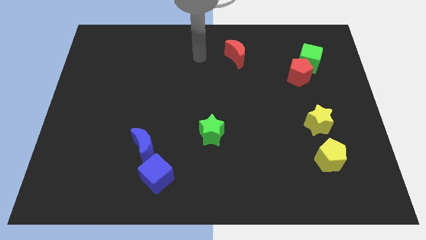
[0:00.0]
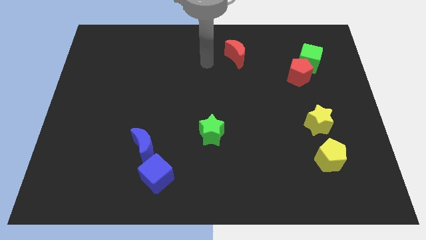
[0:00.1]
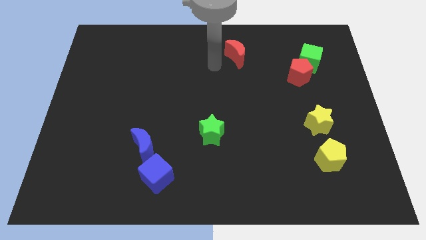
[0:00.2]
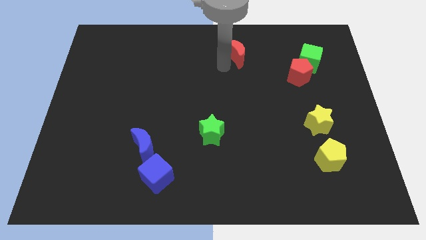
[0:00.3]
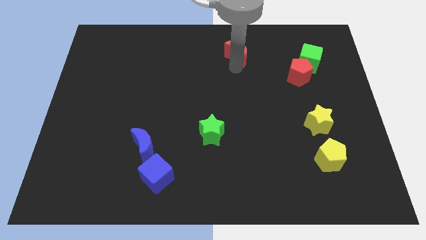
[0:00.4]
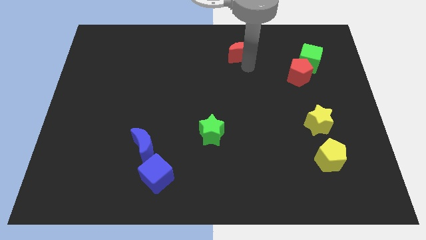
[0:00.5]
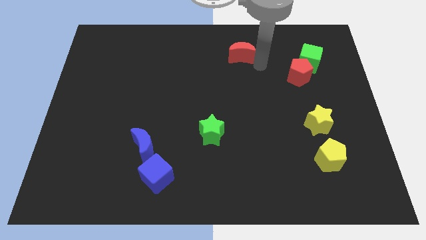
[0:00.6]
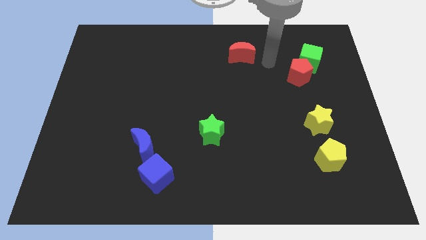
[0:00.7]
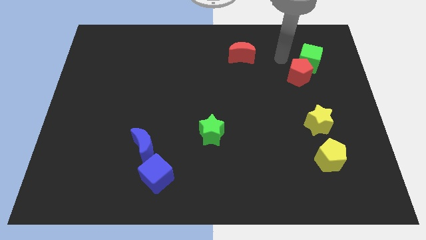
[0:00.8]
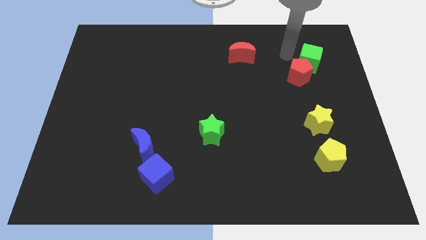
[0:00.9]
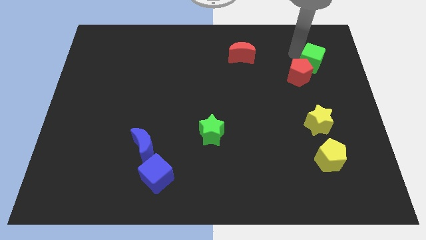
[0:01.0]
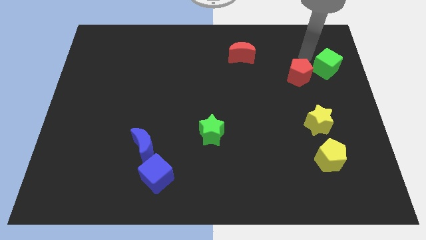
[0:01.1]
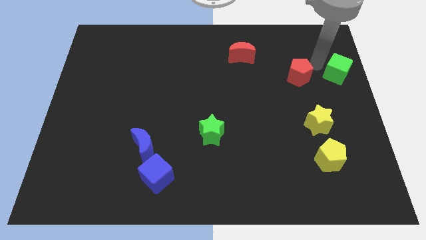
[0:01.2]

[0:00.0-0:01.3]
separate the red pentagon from the green cube

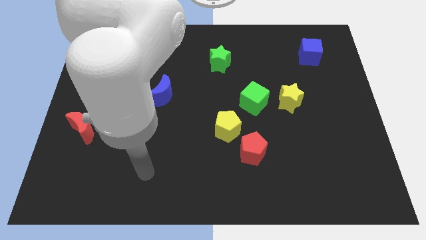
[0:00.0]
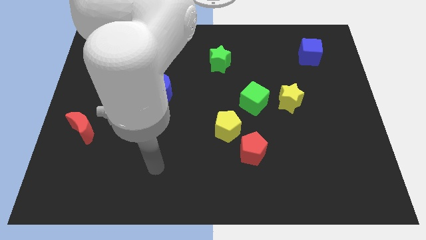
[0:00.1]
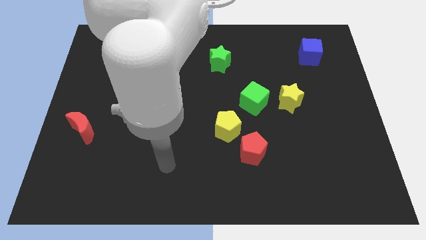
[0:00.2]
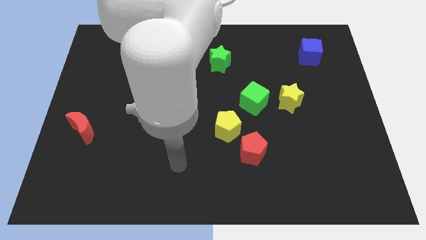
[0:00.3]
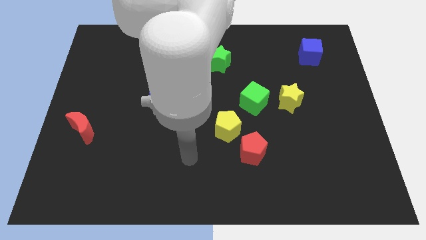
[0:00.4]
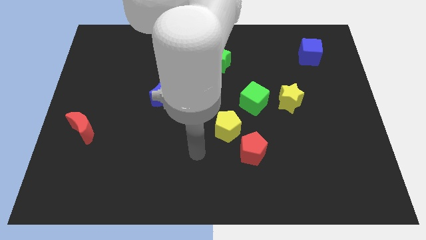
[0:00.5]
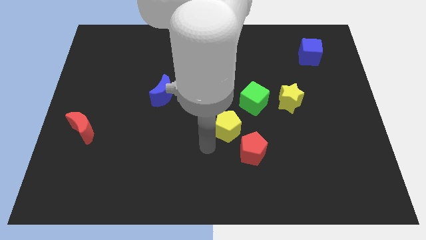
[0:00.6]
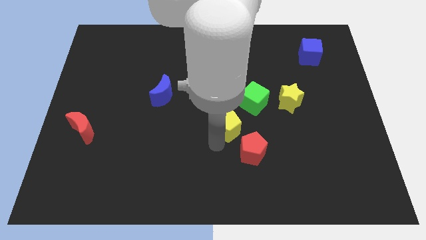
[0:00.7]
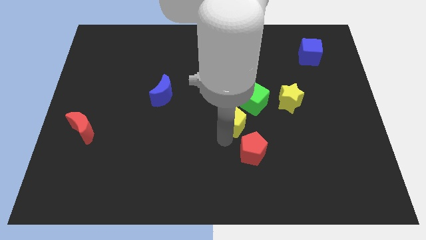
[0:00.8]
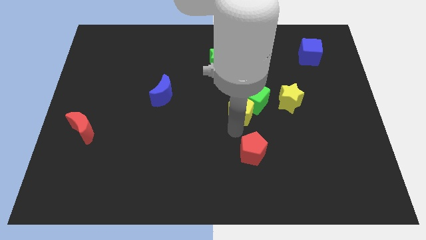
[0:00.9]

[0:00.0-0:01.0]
move the red pentagon away from the yellow pentagon

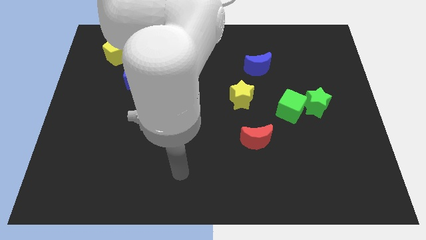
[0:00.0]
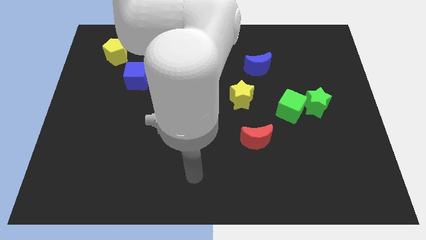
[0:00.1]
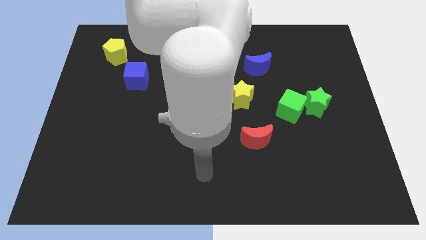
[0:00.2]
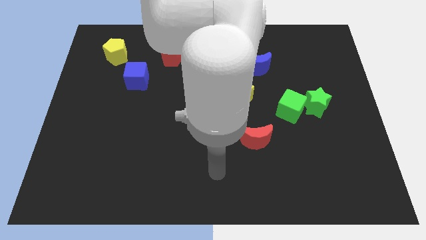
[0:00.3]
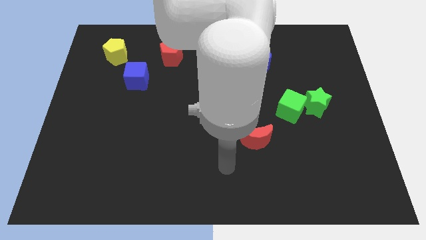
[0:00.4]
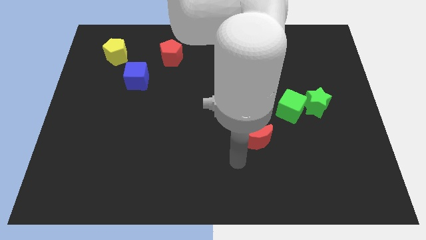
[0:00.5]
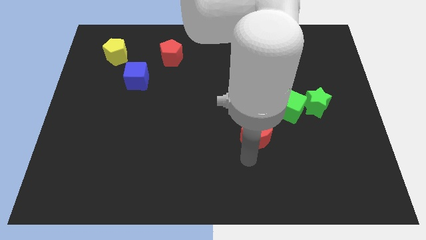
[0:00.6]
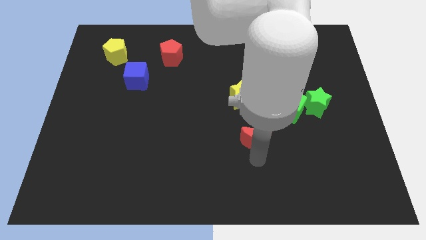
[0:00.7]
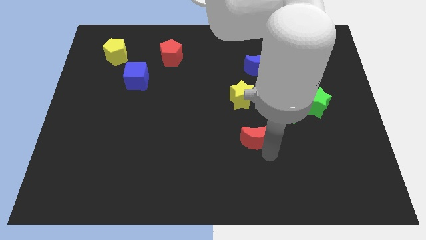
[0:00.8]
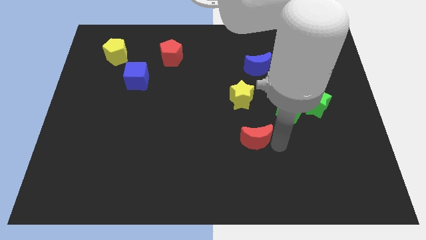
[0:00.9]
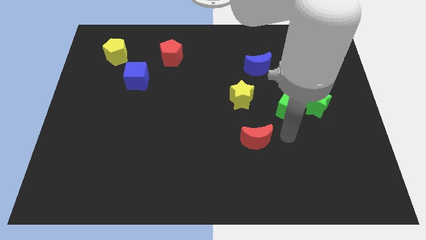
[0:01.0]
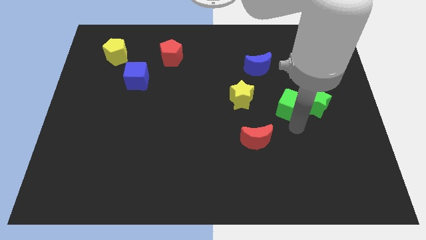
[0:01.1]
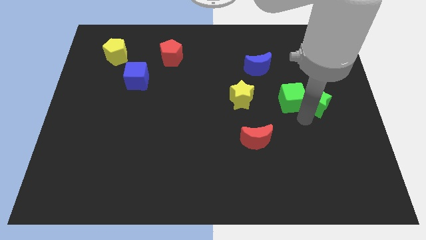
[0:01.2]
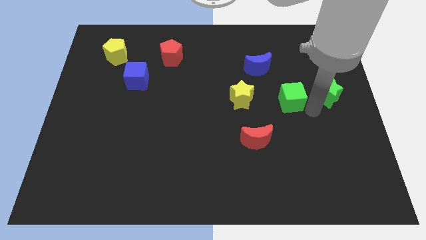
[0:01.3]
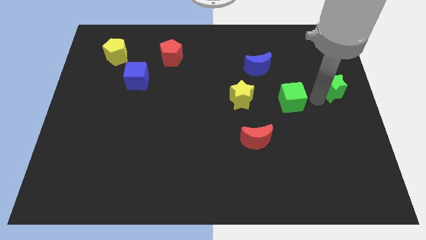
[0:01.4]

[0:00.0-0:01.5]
move the green cube away from the green star

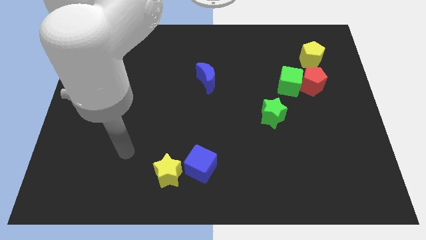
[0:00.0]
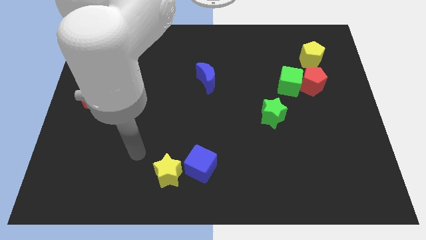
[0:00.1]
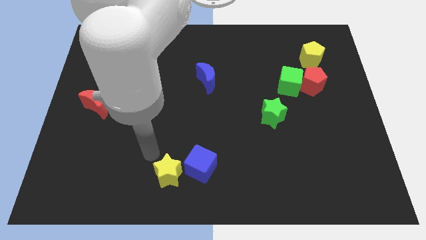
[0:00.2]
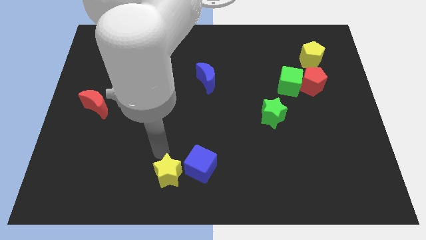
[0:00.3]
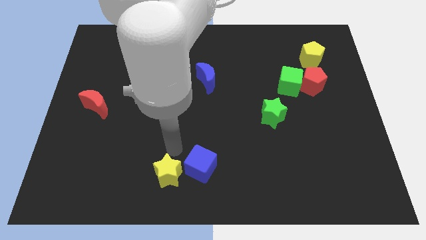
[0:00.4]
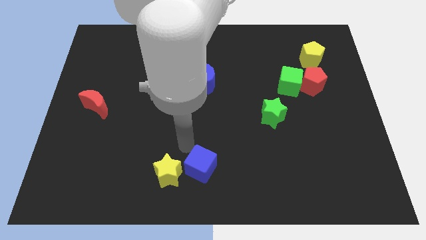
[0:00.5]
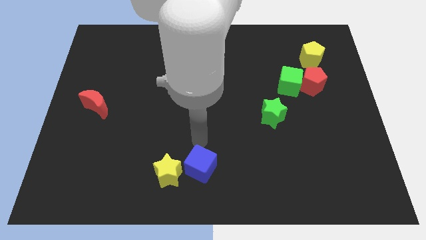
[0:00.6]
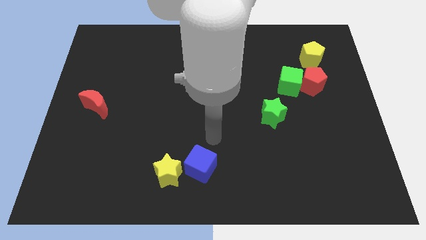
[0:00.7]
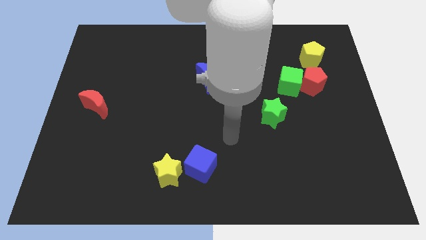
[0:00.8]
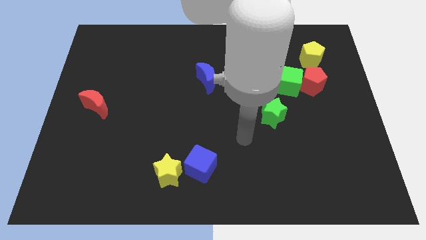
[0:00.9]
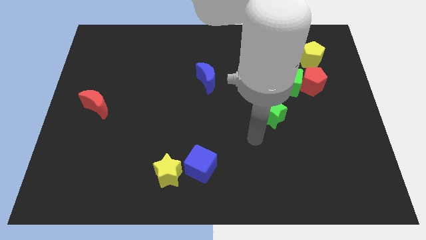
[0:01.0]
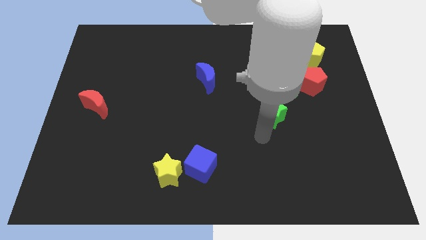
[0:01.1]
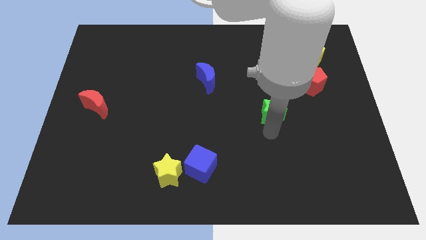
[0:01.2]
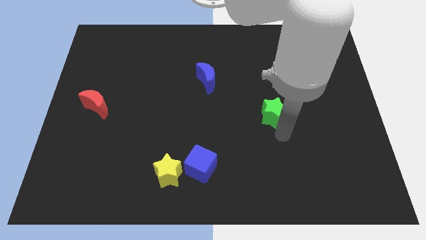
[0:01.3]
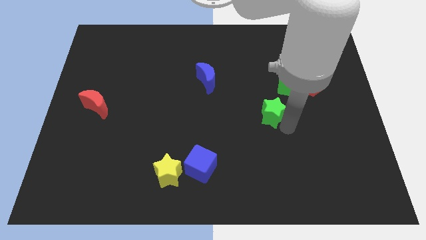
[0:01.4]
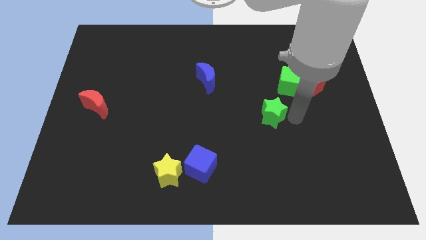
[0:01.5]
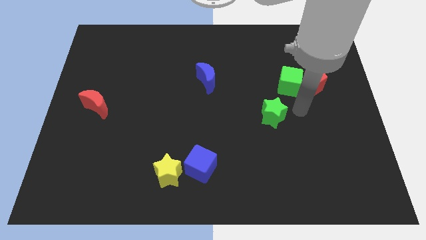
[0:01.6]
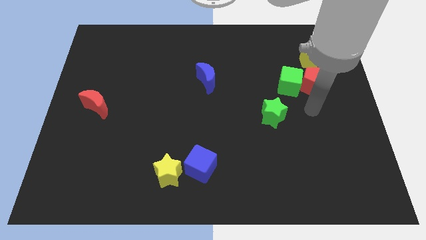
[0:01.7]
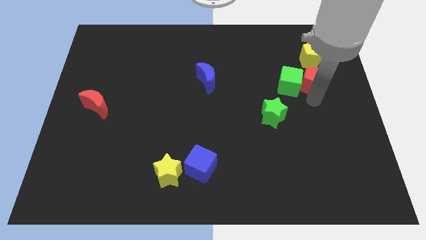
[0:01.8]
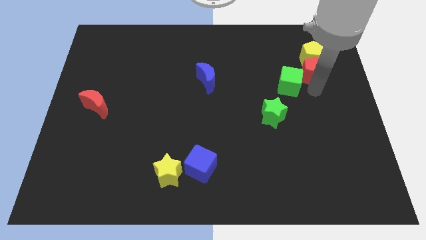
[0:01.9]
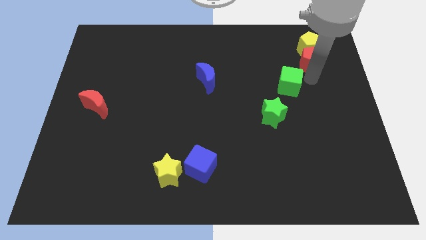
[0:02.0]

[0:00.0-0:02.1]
separate the green cube from the red pentagon

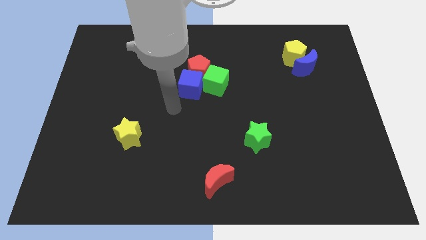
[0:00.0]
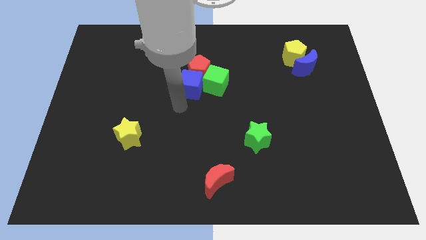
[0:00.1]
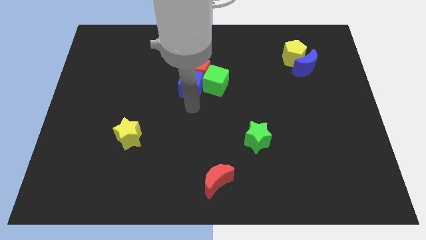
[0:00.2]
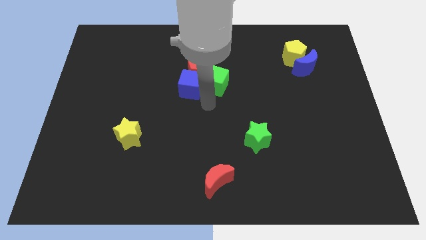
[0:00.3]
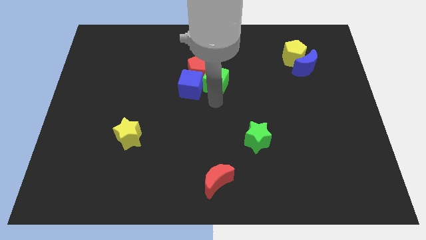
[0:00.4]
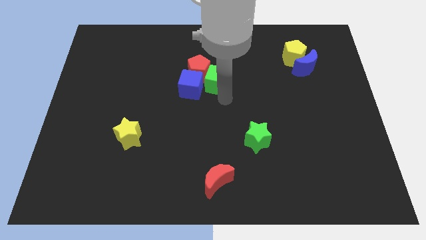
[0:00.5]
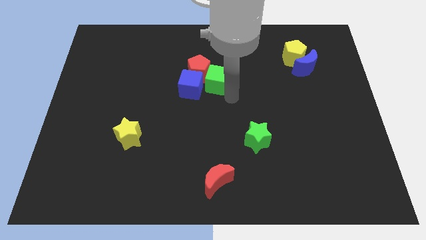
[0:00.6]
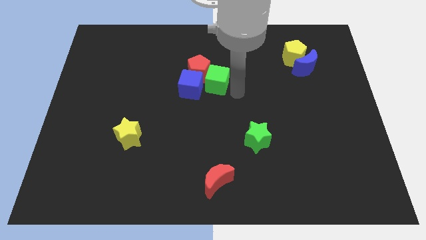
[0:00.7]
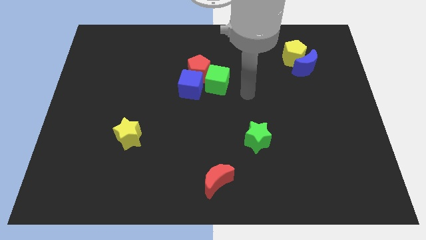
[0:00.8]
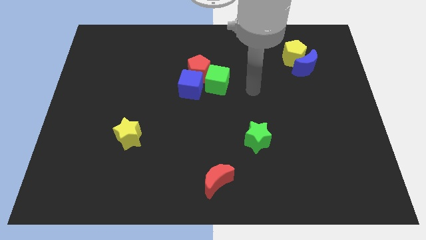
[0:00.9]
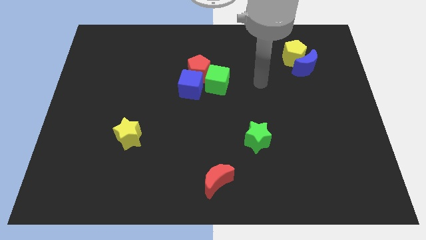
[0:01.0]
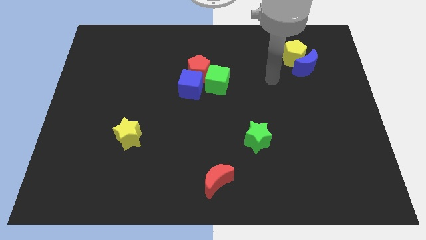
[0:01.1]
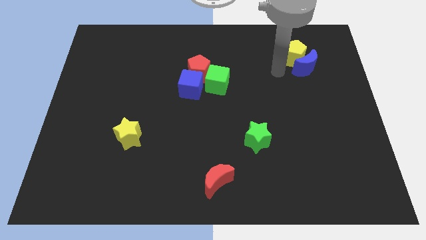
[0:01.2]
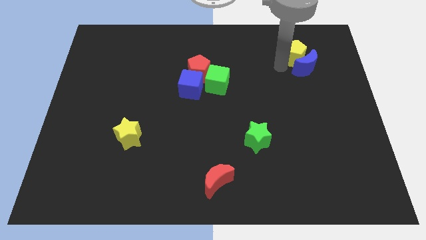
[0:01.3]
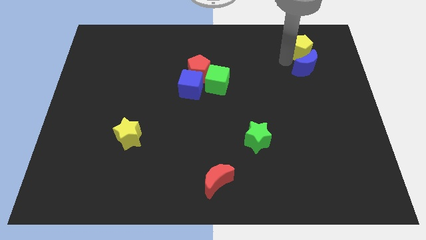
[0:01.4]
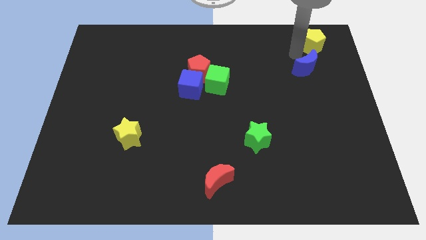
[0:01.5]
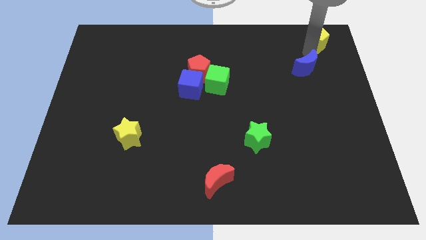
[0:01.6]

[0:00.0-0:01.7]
pull the blue moon apart from the yellow pentagon

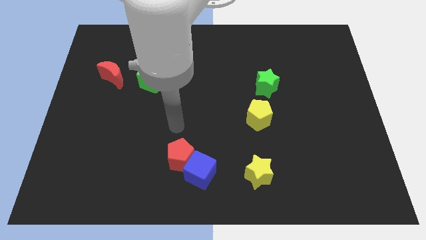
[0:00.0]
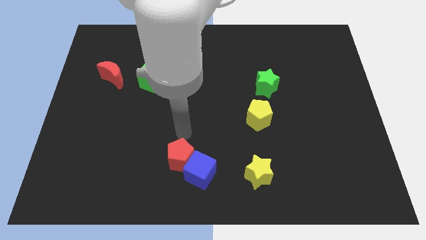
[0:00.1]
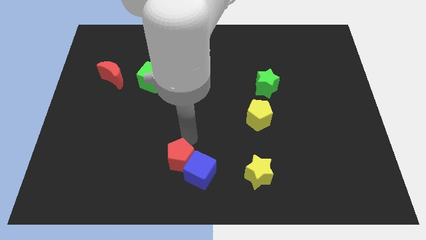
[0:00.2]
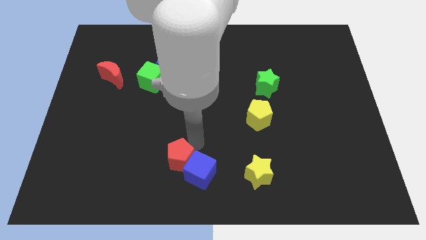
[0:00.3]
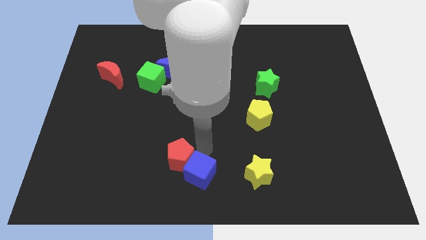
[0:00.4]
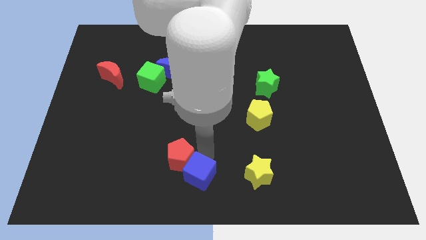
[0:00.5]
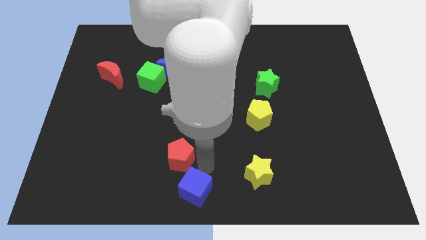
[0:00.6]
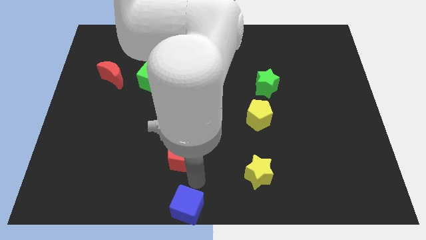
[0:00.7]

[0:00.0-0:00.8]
pull the red pentagon apart from the blue cube

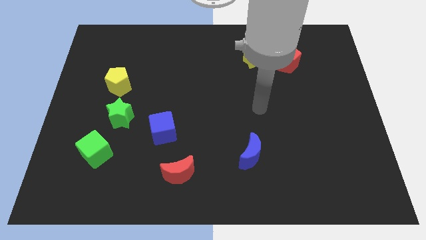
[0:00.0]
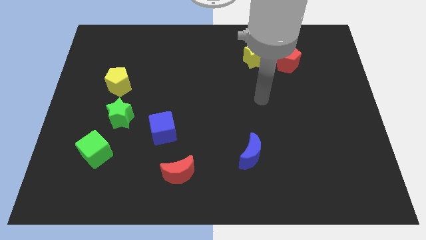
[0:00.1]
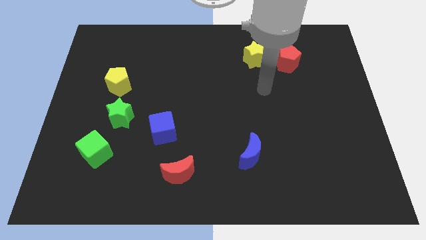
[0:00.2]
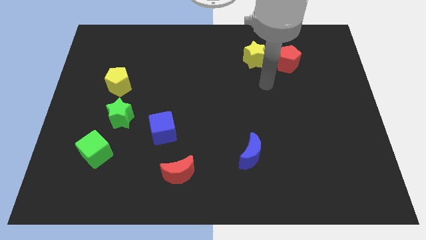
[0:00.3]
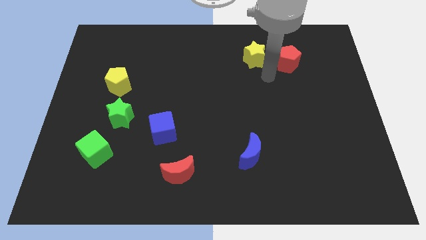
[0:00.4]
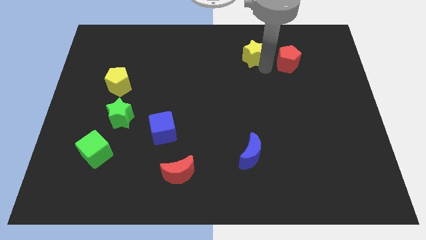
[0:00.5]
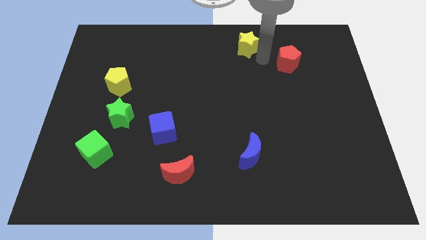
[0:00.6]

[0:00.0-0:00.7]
separate the red pentagon from the yellow star

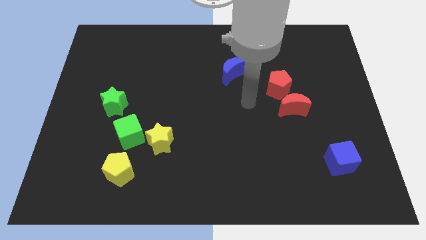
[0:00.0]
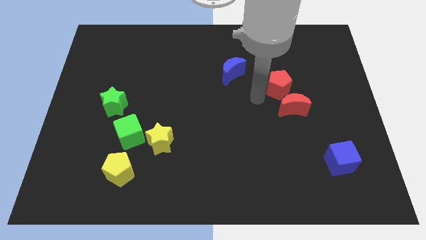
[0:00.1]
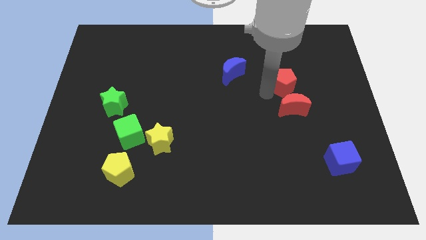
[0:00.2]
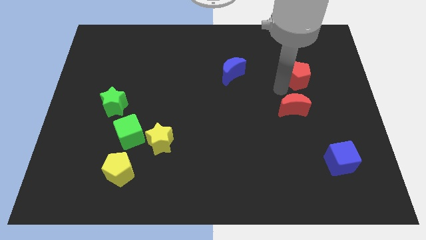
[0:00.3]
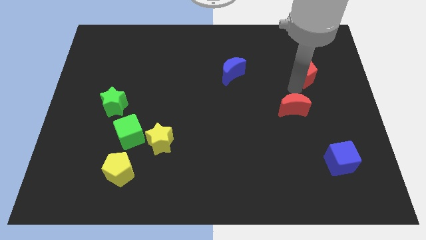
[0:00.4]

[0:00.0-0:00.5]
pull the red moon apart from the red pentagon
